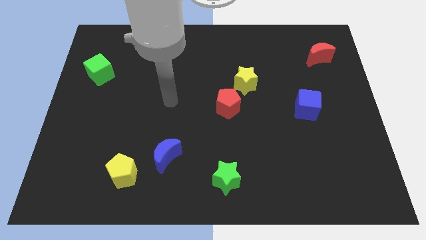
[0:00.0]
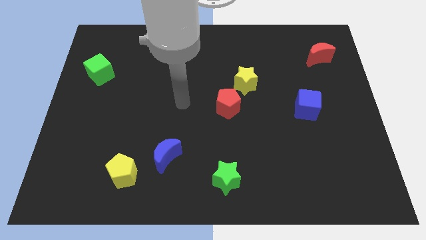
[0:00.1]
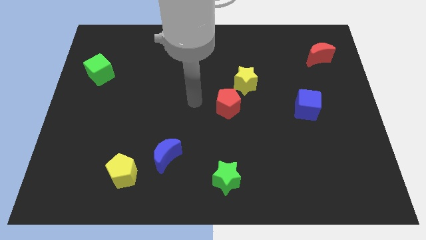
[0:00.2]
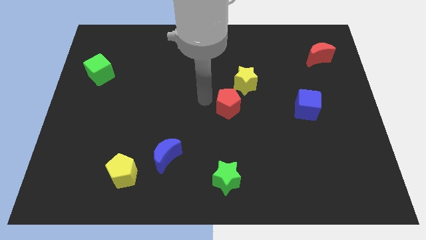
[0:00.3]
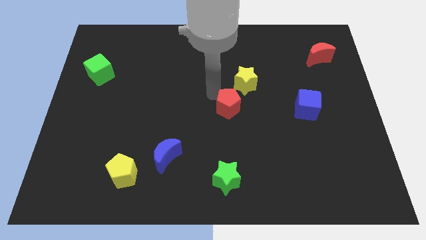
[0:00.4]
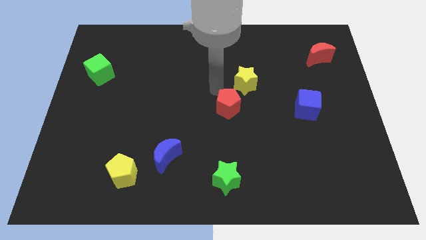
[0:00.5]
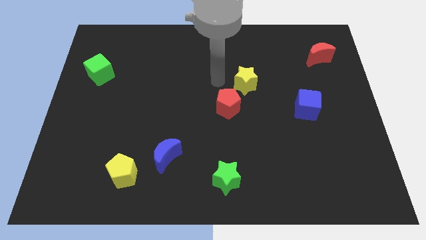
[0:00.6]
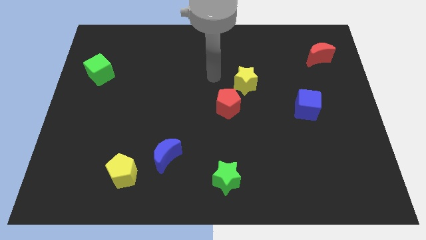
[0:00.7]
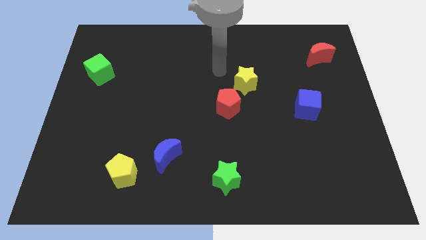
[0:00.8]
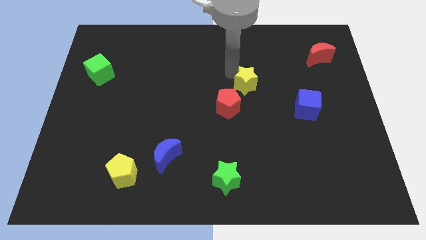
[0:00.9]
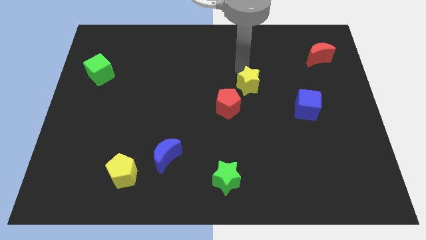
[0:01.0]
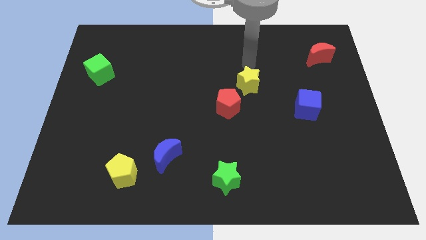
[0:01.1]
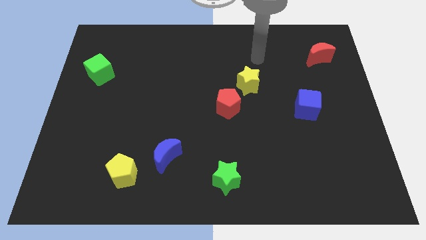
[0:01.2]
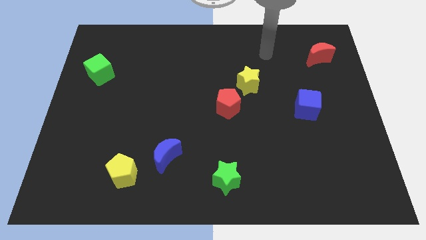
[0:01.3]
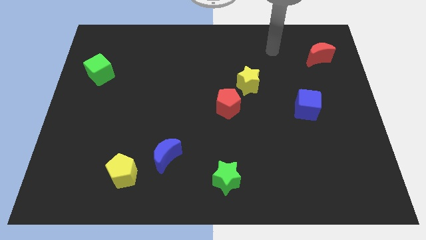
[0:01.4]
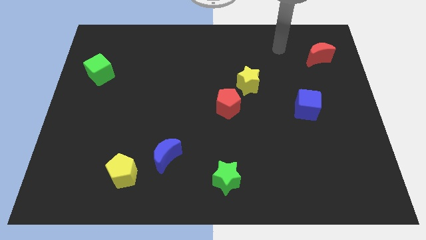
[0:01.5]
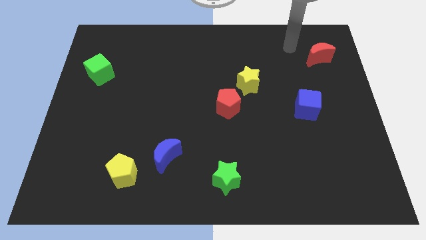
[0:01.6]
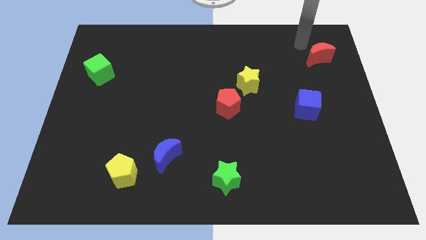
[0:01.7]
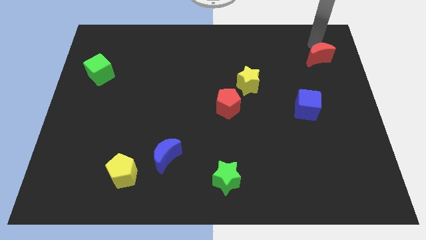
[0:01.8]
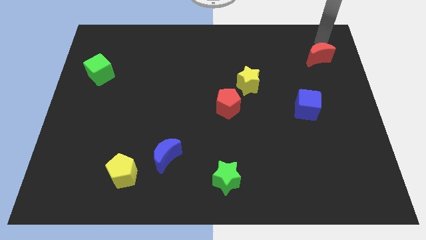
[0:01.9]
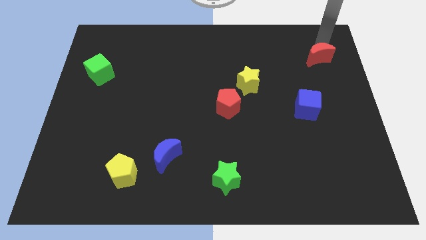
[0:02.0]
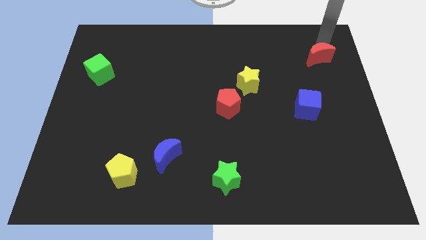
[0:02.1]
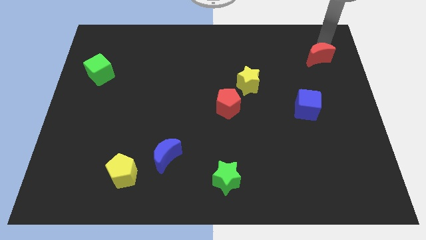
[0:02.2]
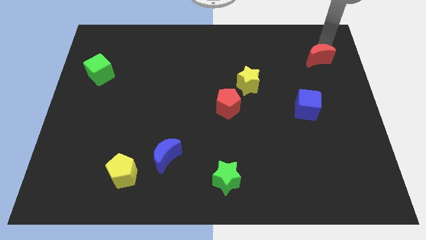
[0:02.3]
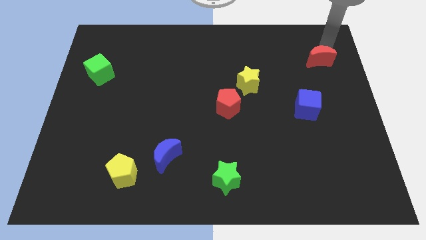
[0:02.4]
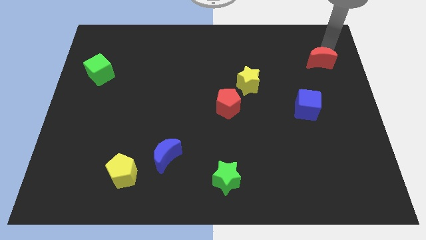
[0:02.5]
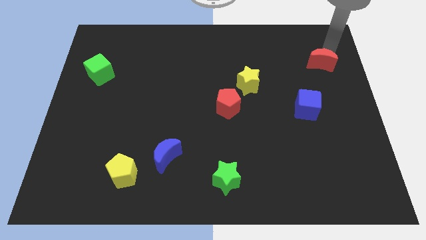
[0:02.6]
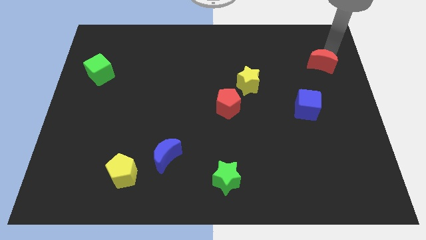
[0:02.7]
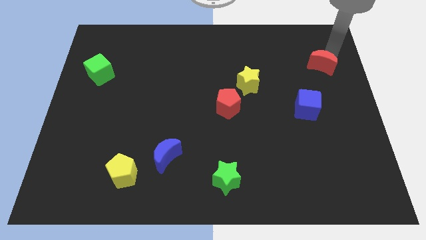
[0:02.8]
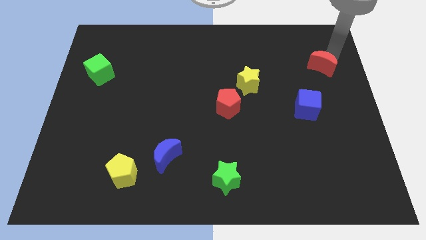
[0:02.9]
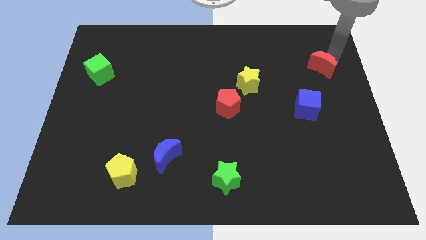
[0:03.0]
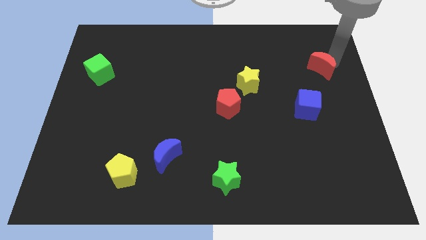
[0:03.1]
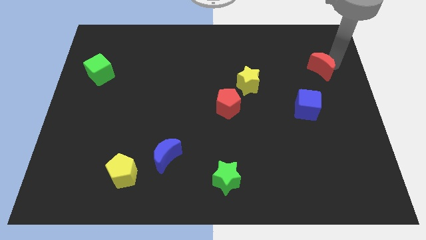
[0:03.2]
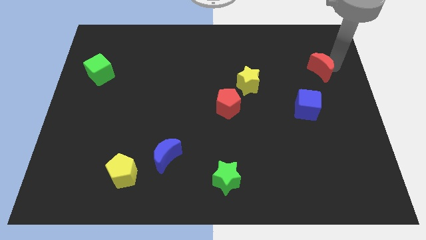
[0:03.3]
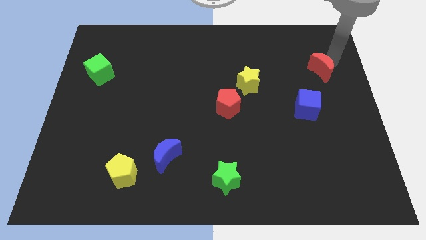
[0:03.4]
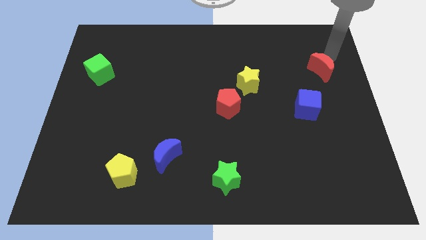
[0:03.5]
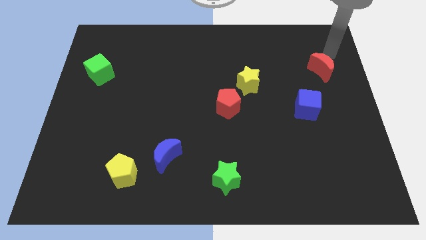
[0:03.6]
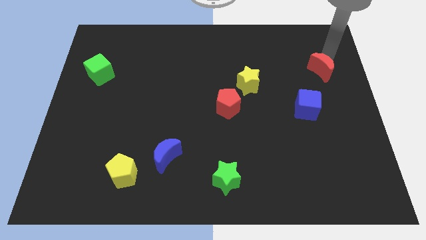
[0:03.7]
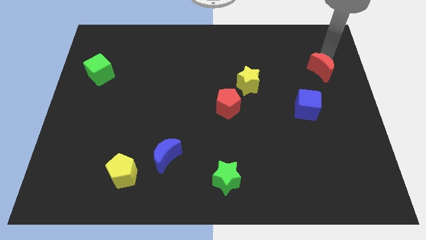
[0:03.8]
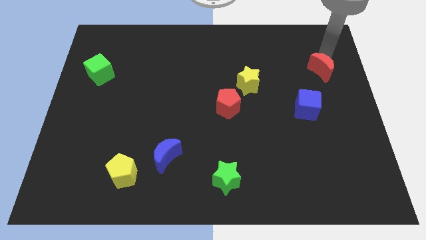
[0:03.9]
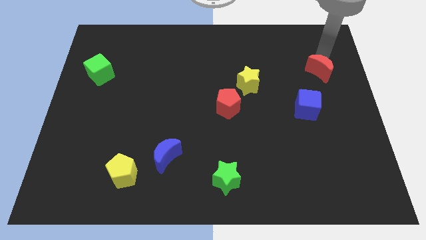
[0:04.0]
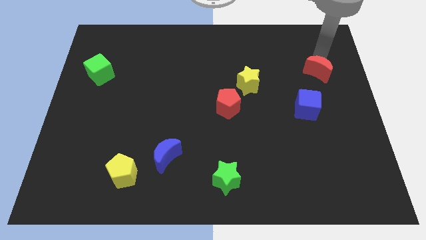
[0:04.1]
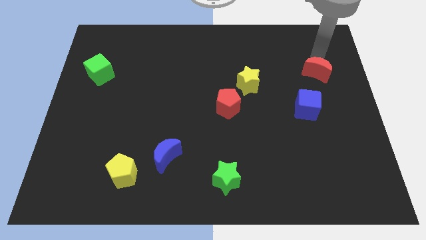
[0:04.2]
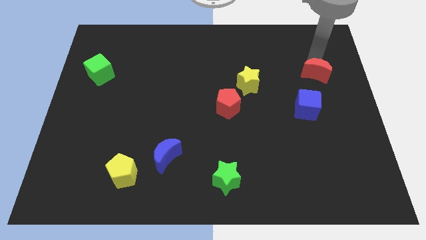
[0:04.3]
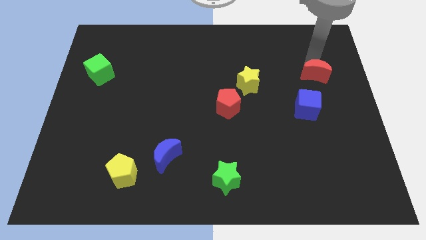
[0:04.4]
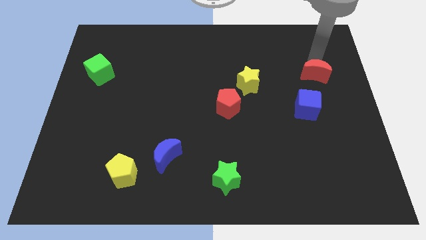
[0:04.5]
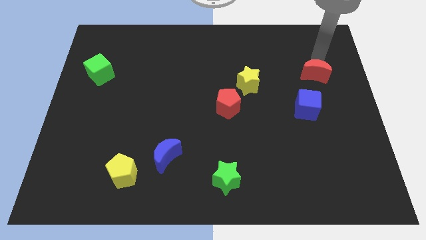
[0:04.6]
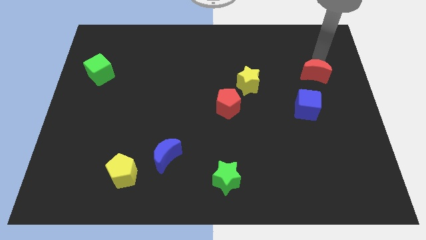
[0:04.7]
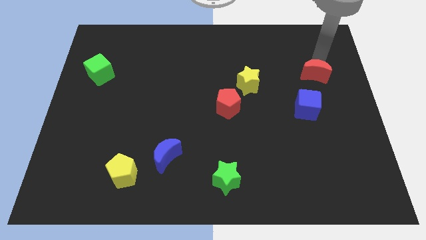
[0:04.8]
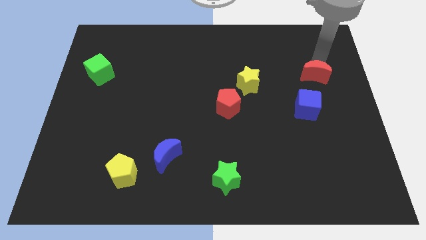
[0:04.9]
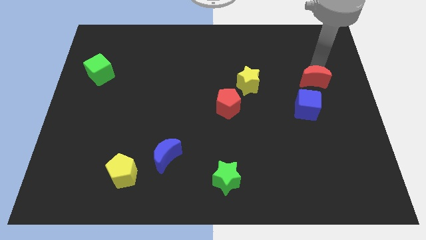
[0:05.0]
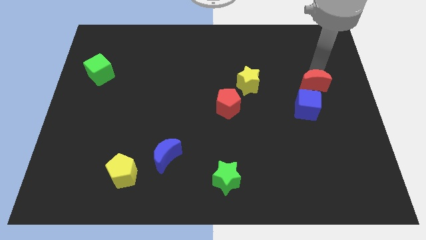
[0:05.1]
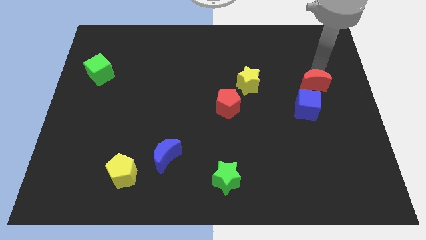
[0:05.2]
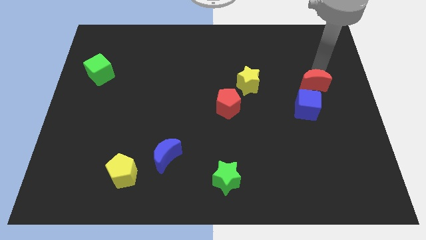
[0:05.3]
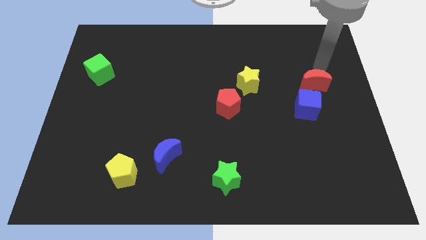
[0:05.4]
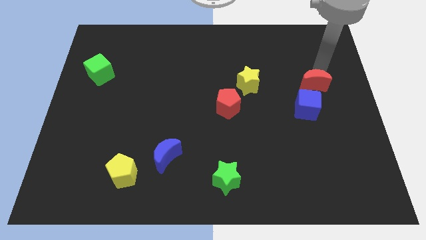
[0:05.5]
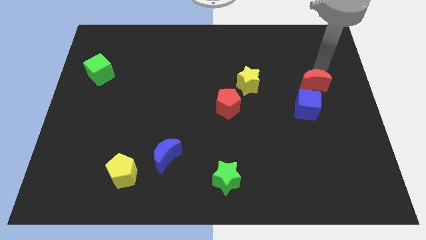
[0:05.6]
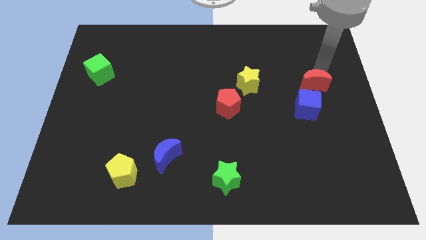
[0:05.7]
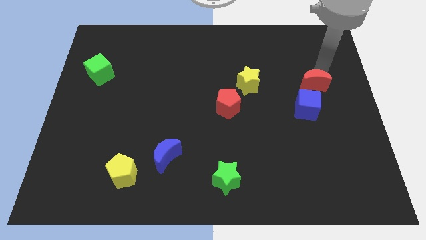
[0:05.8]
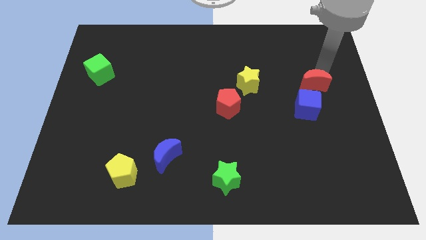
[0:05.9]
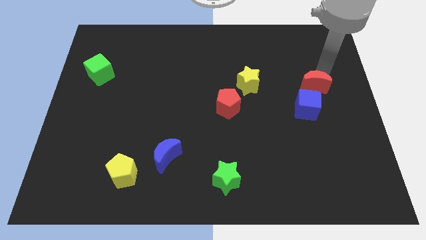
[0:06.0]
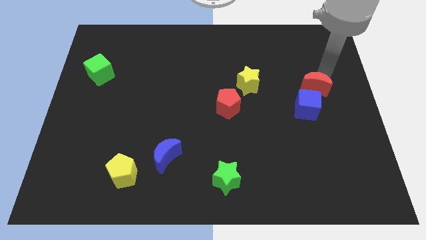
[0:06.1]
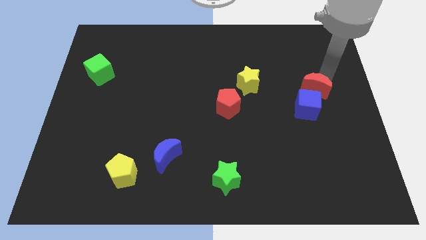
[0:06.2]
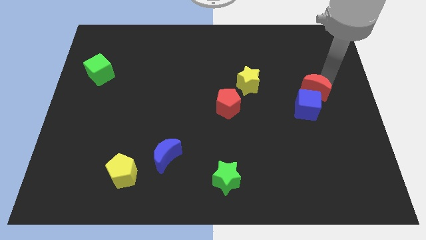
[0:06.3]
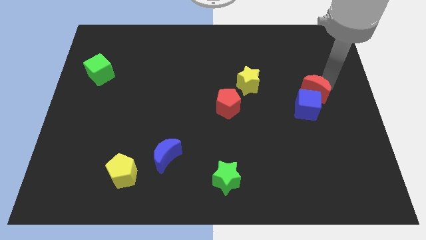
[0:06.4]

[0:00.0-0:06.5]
put the red moon towards the blue cube
